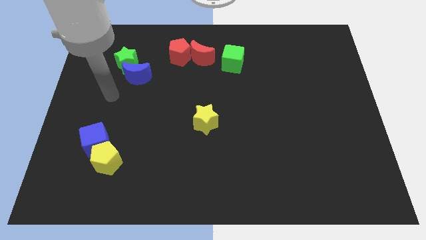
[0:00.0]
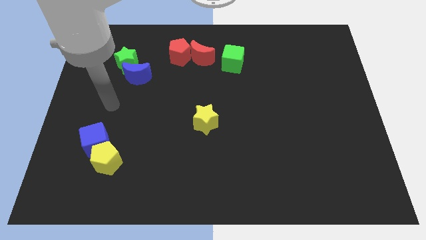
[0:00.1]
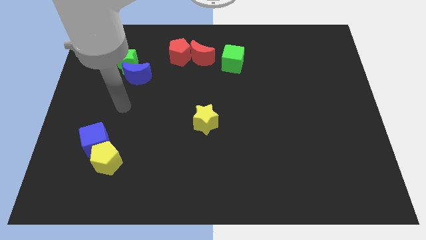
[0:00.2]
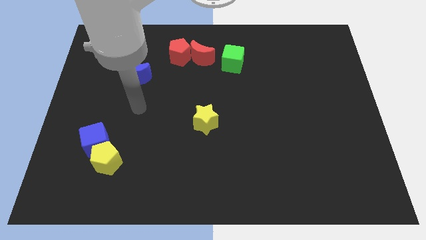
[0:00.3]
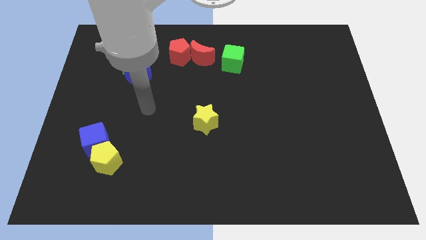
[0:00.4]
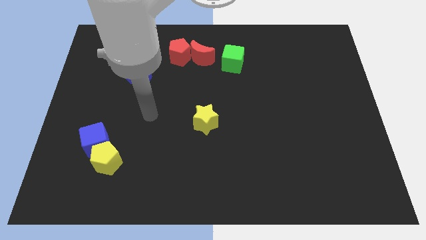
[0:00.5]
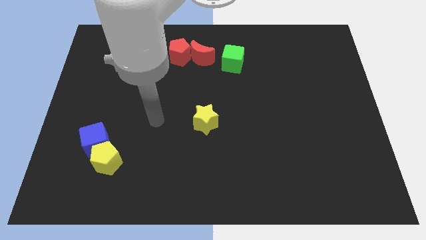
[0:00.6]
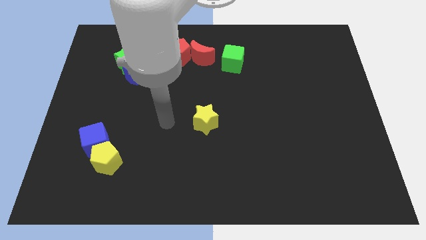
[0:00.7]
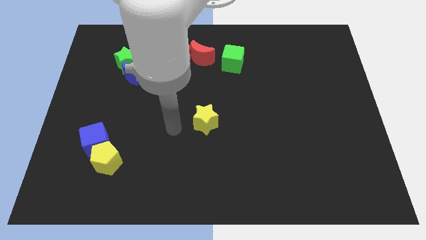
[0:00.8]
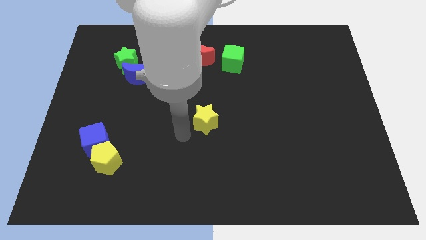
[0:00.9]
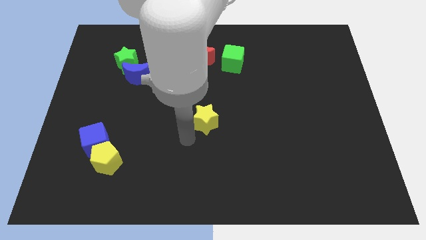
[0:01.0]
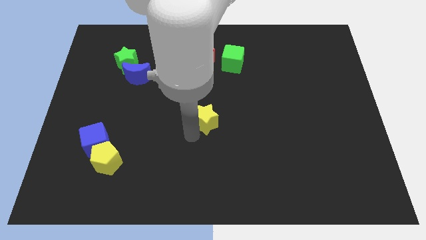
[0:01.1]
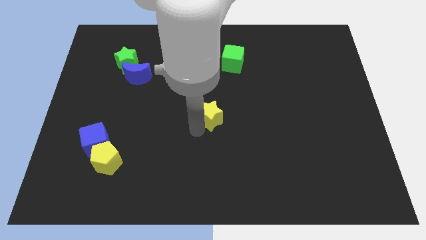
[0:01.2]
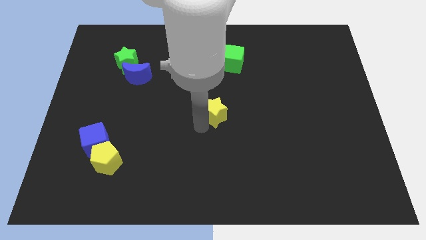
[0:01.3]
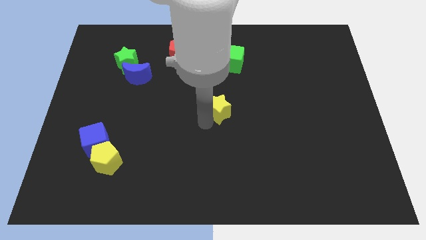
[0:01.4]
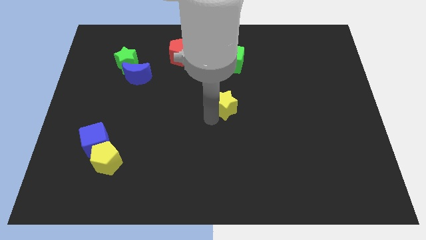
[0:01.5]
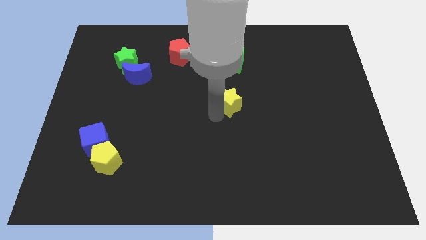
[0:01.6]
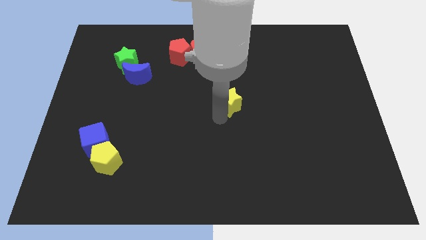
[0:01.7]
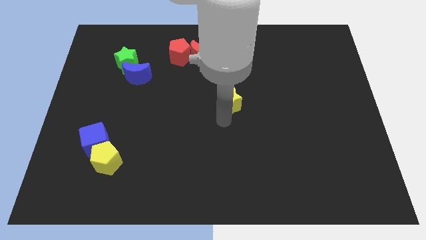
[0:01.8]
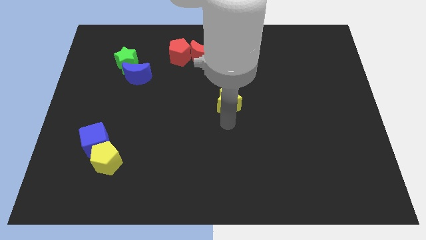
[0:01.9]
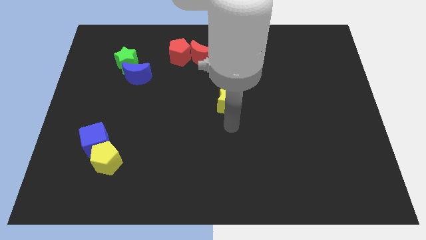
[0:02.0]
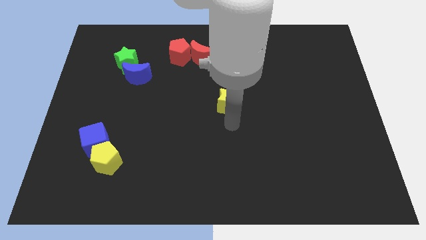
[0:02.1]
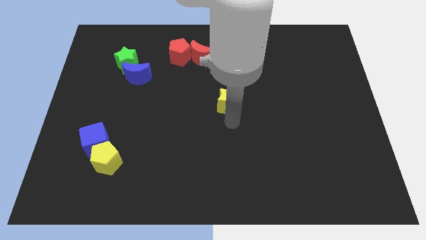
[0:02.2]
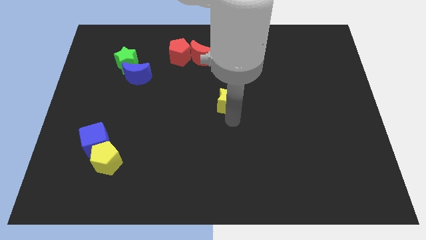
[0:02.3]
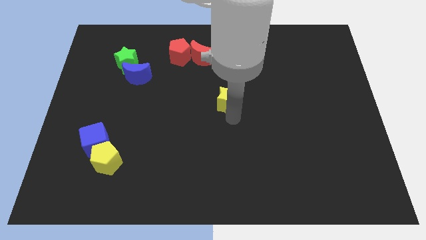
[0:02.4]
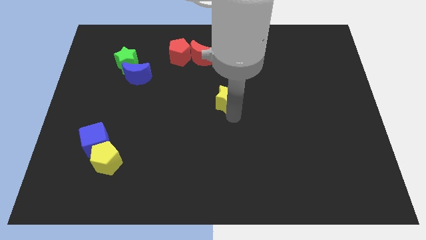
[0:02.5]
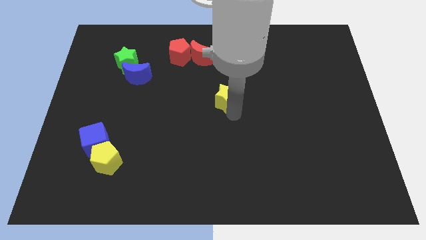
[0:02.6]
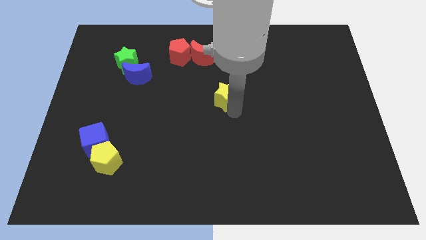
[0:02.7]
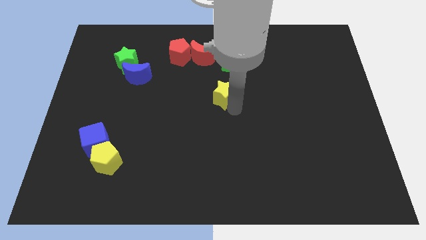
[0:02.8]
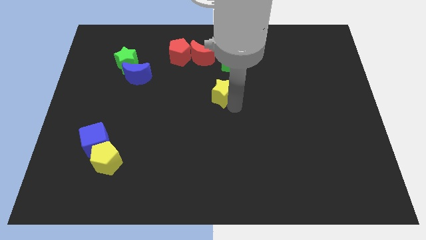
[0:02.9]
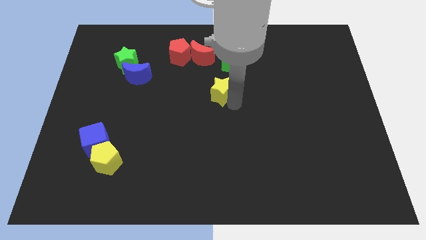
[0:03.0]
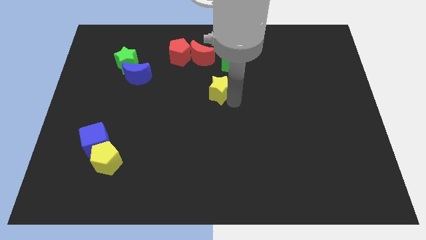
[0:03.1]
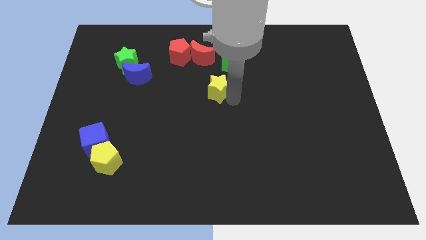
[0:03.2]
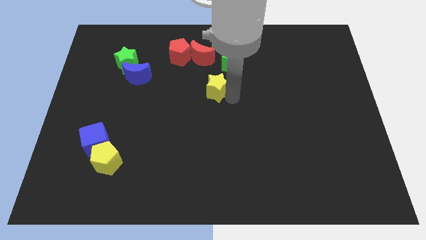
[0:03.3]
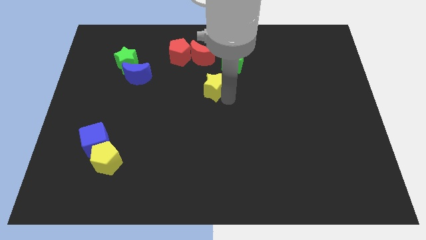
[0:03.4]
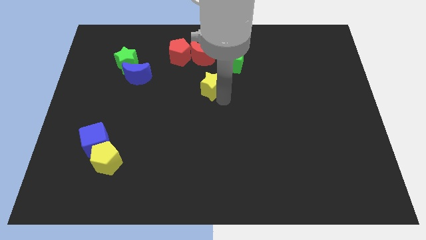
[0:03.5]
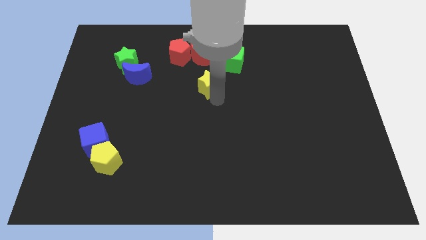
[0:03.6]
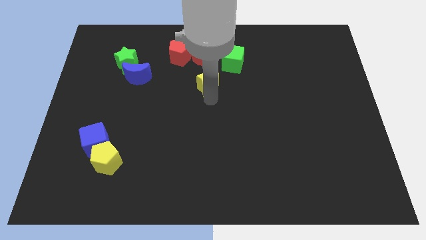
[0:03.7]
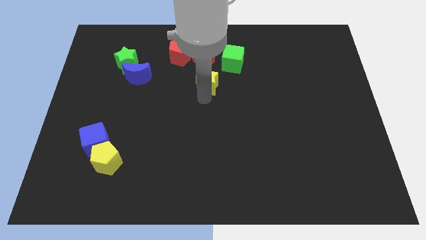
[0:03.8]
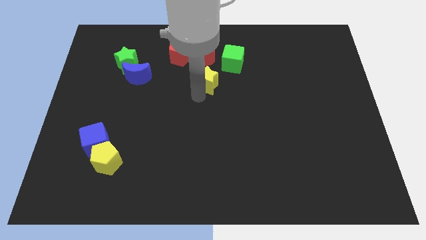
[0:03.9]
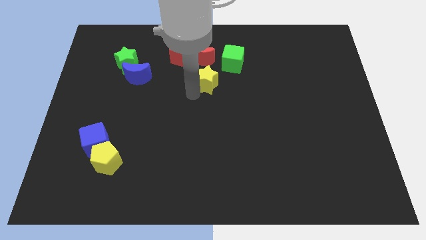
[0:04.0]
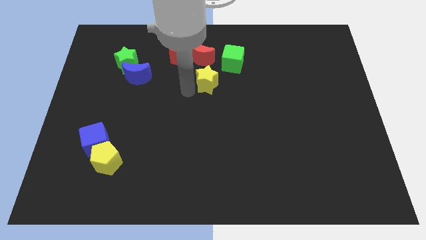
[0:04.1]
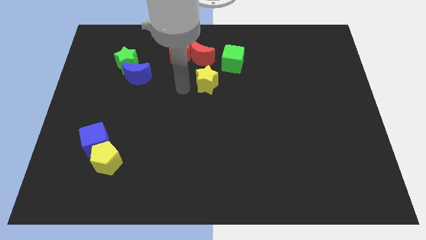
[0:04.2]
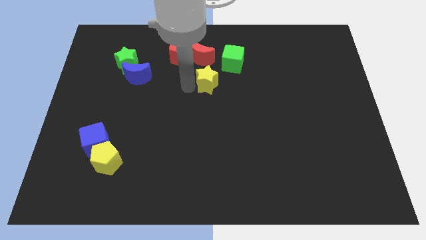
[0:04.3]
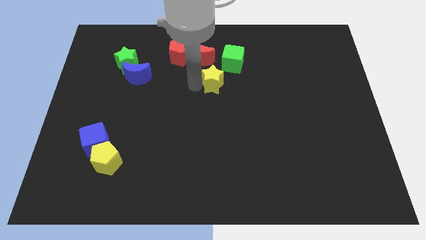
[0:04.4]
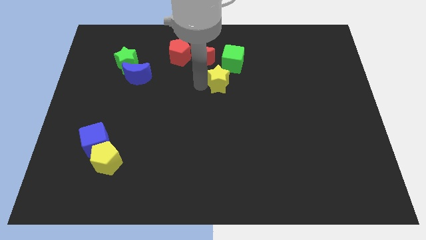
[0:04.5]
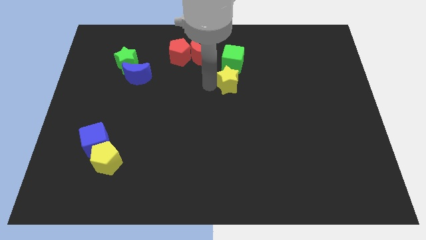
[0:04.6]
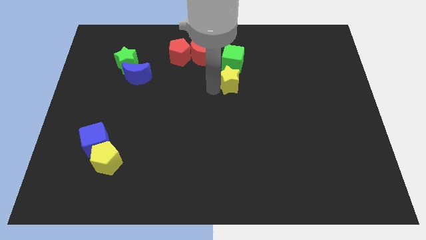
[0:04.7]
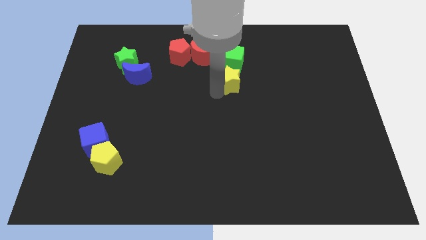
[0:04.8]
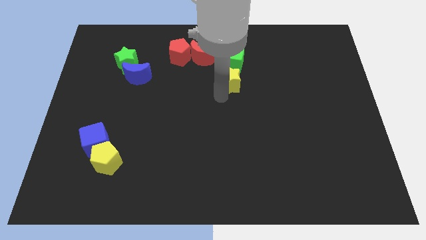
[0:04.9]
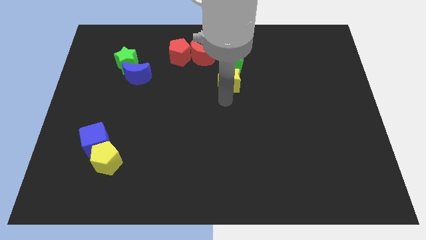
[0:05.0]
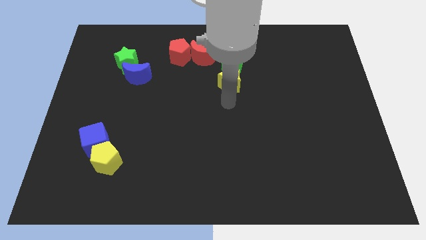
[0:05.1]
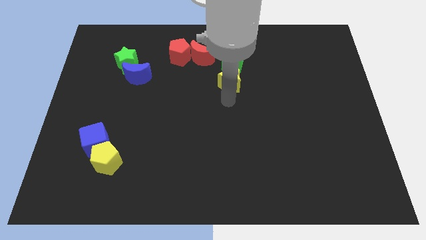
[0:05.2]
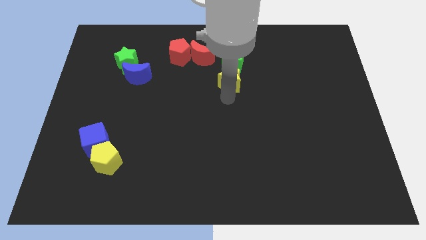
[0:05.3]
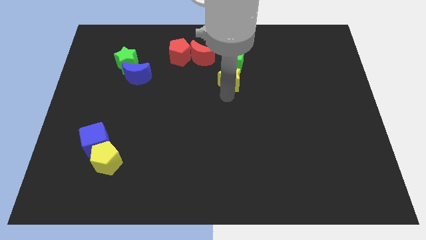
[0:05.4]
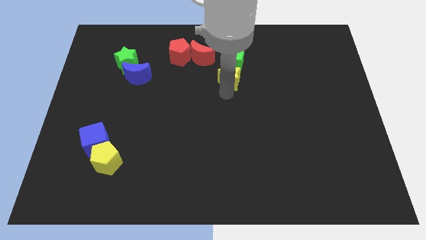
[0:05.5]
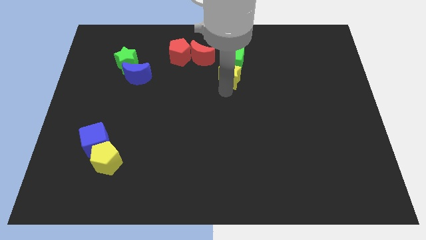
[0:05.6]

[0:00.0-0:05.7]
put the yellow star next to the green cube

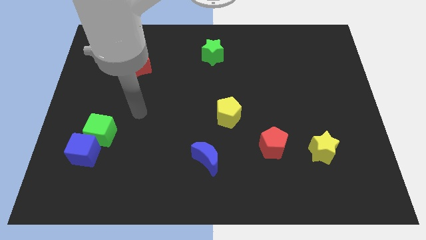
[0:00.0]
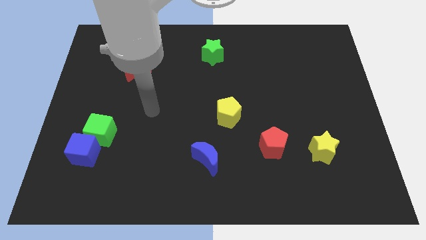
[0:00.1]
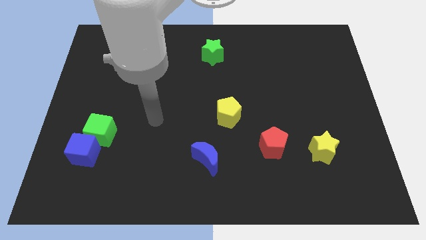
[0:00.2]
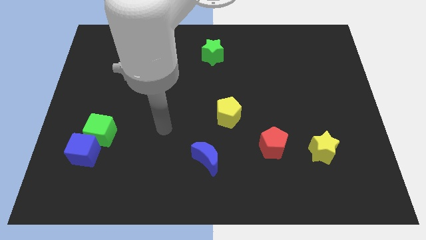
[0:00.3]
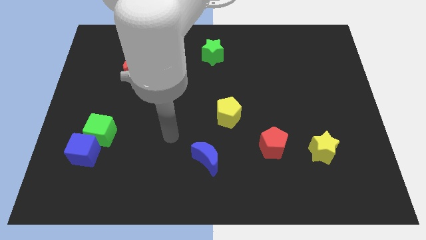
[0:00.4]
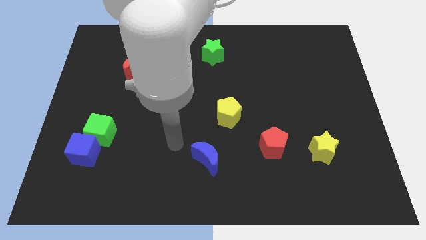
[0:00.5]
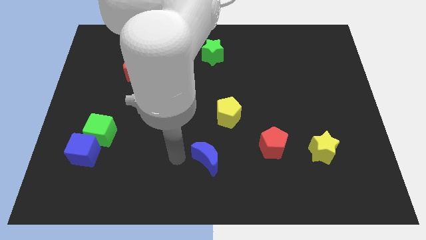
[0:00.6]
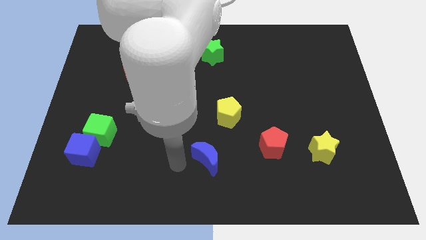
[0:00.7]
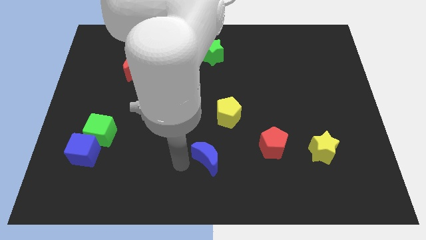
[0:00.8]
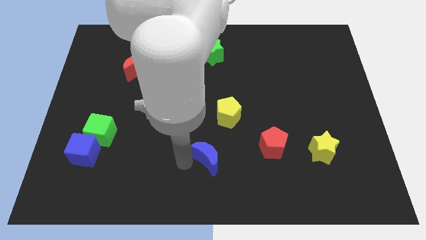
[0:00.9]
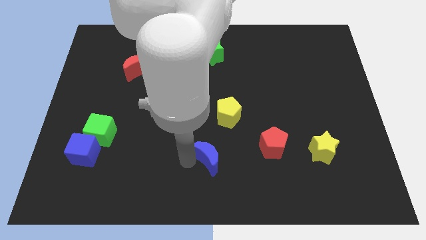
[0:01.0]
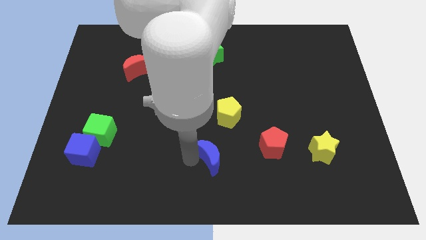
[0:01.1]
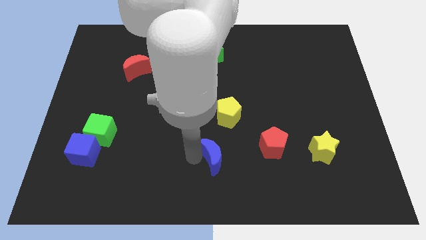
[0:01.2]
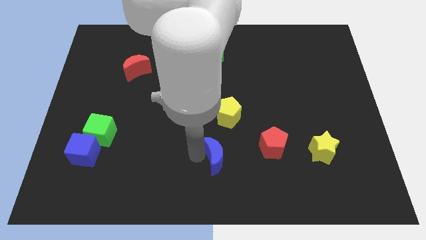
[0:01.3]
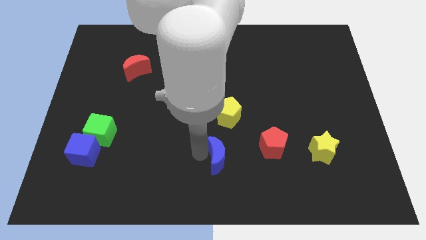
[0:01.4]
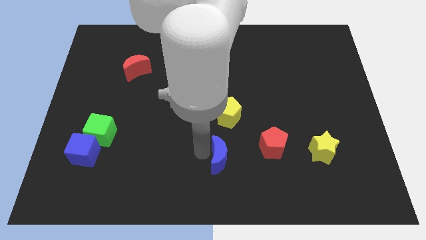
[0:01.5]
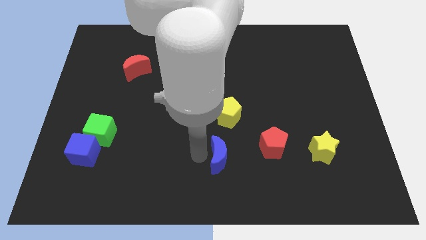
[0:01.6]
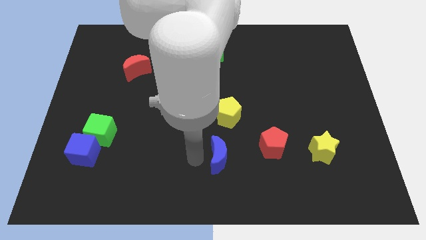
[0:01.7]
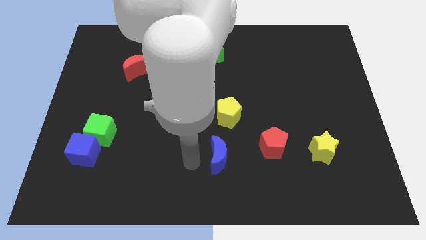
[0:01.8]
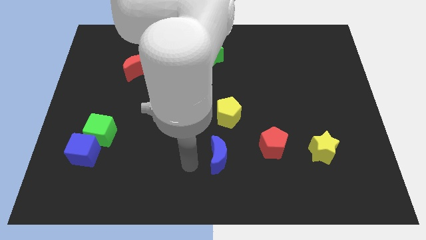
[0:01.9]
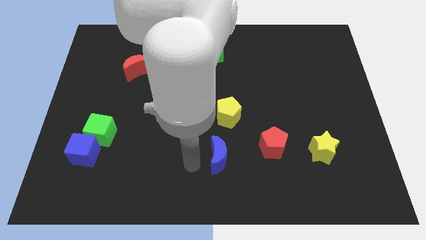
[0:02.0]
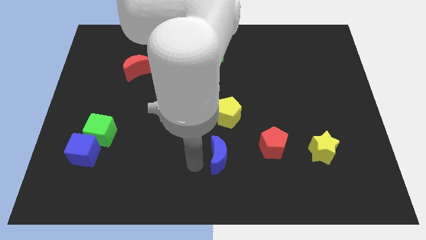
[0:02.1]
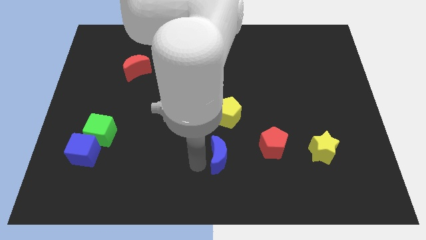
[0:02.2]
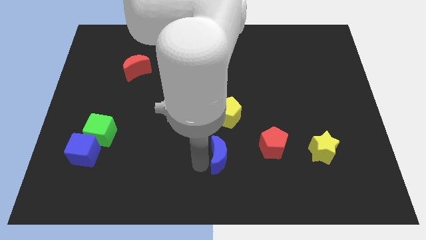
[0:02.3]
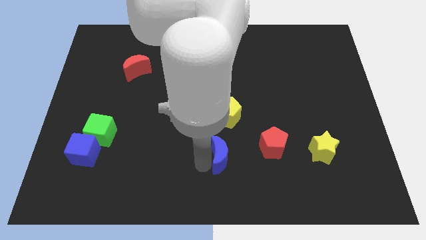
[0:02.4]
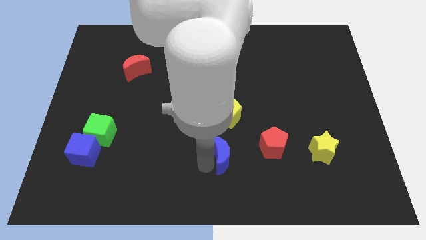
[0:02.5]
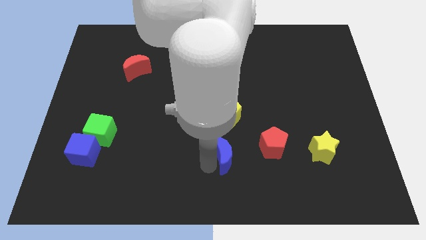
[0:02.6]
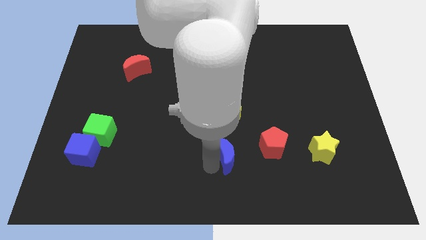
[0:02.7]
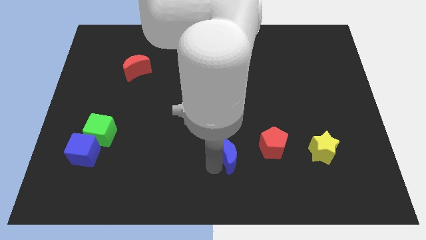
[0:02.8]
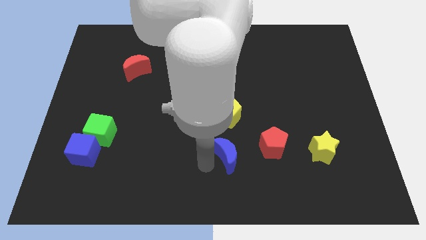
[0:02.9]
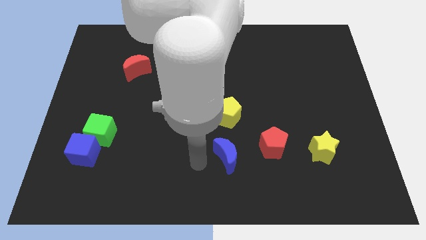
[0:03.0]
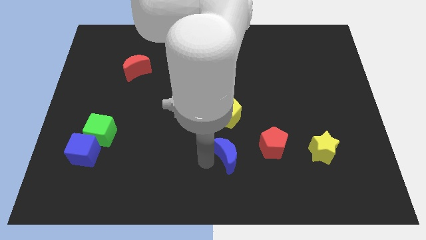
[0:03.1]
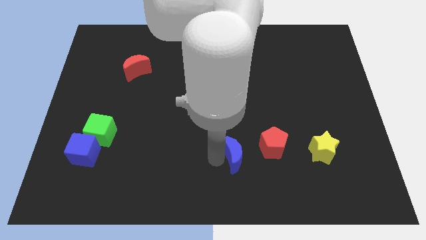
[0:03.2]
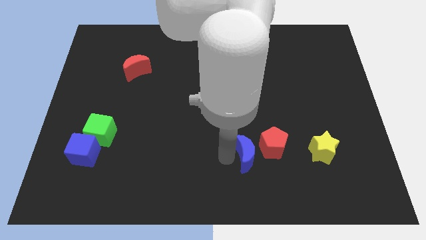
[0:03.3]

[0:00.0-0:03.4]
push the blue moon close to the red pentagon
